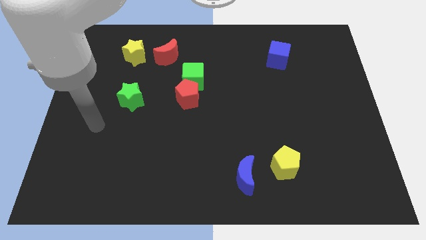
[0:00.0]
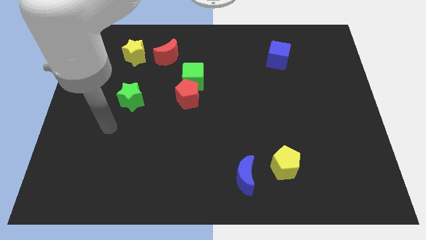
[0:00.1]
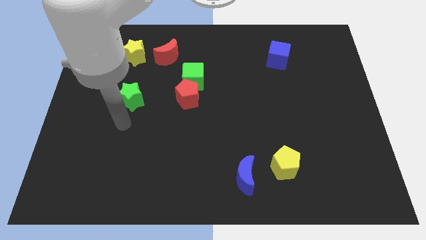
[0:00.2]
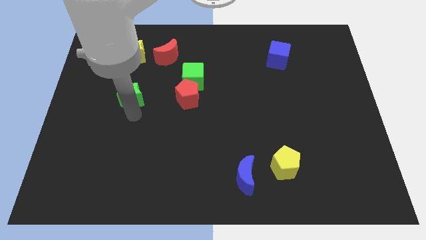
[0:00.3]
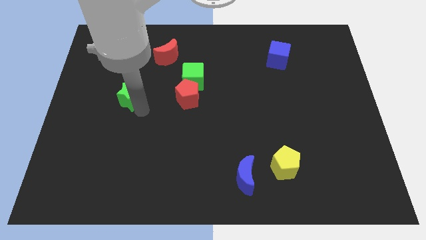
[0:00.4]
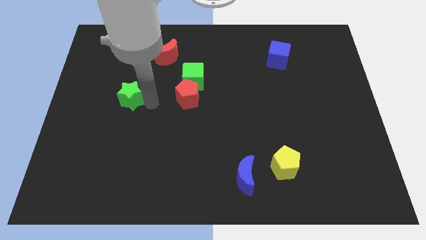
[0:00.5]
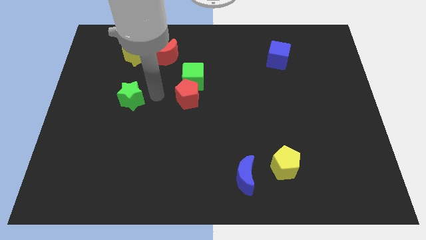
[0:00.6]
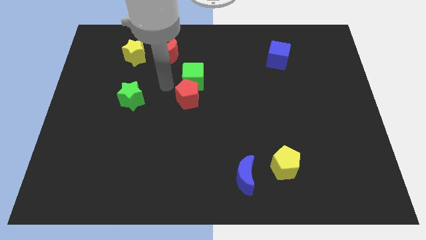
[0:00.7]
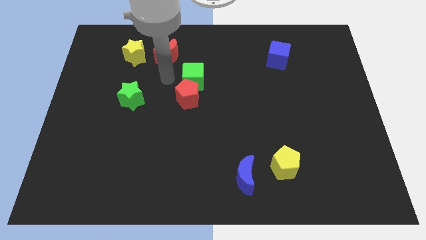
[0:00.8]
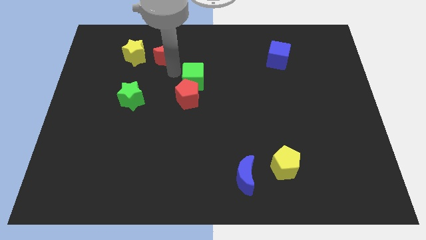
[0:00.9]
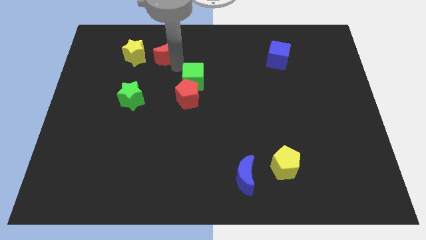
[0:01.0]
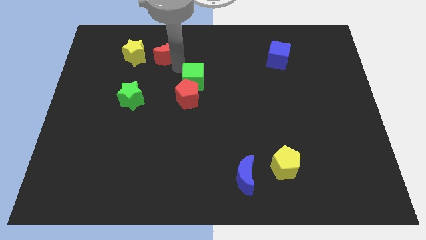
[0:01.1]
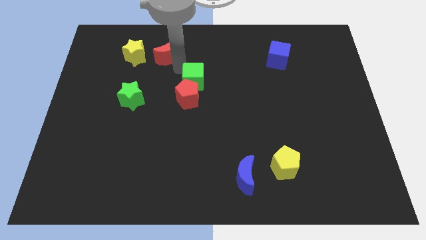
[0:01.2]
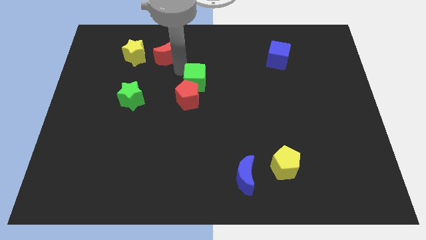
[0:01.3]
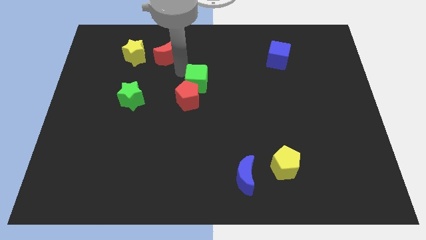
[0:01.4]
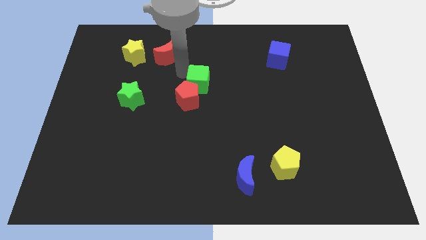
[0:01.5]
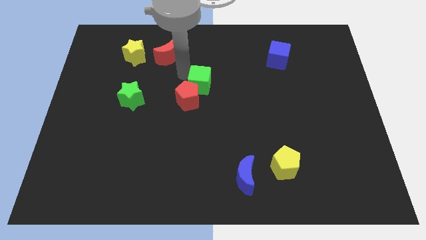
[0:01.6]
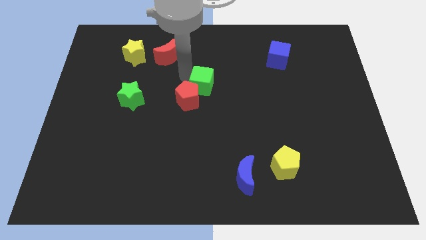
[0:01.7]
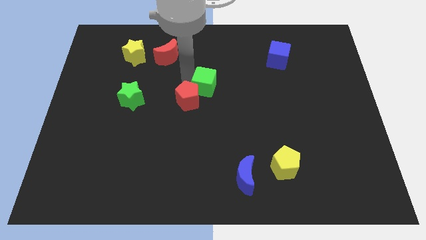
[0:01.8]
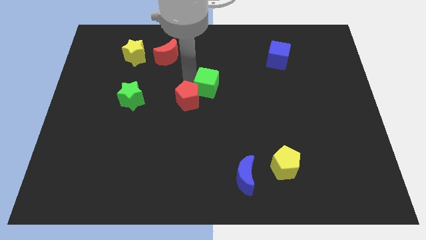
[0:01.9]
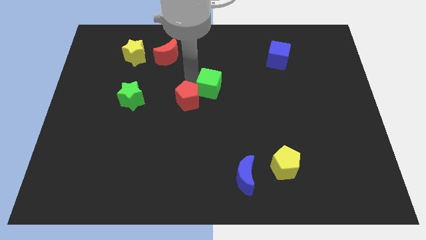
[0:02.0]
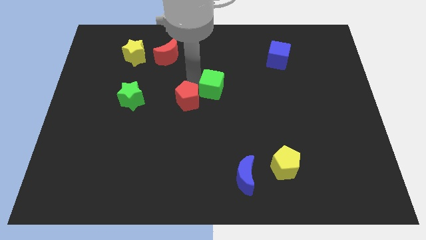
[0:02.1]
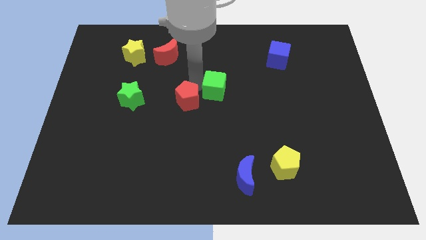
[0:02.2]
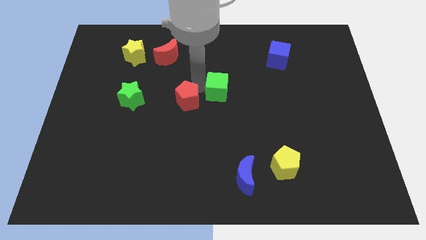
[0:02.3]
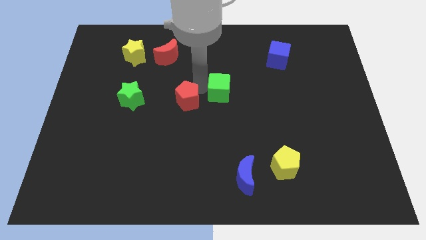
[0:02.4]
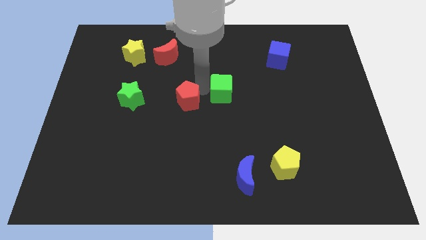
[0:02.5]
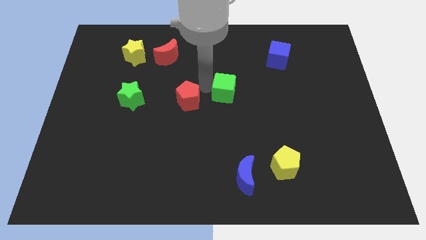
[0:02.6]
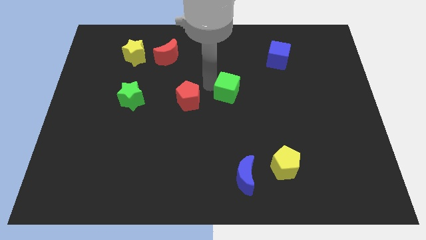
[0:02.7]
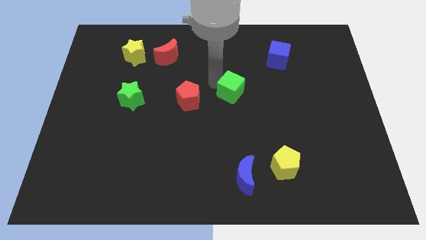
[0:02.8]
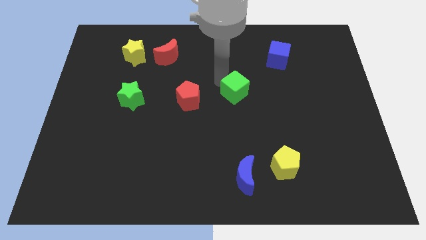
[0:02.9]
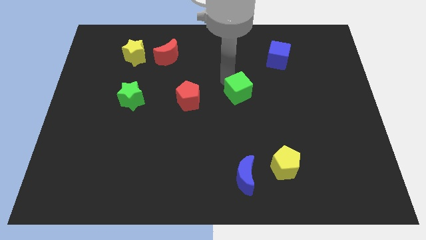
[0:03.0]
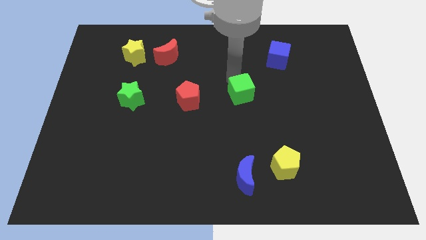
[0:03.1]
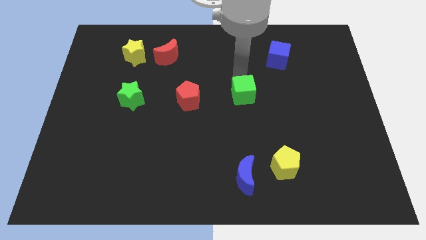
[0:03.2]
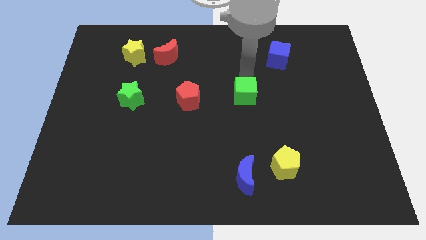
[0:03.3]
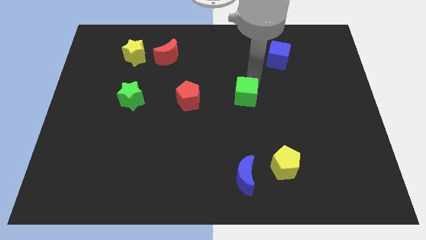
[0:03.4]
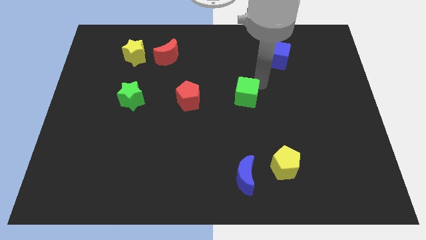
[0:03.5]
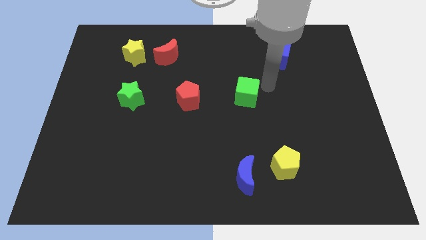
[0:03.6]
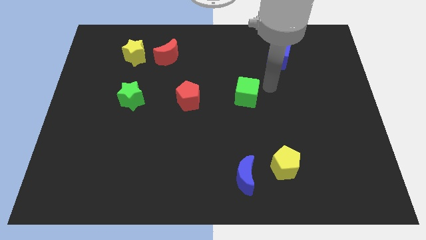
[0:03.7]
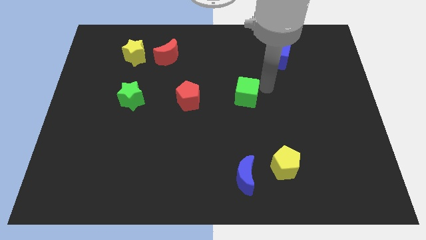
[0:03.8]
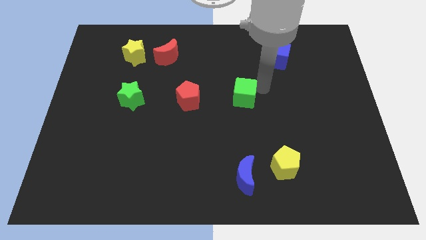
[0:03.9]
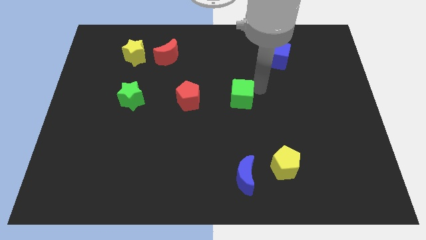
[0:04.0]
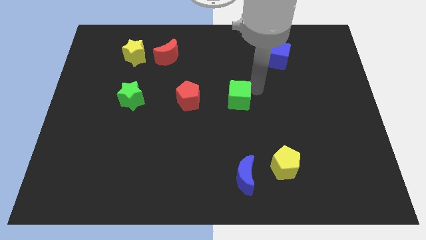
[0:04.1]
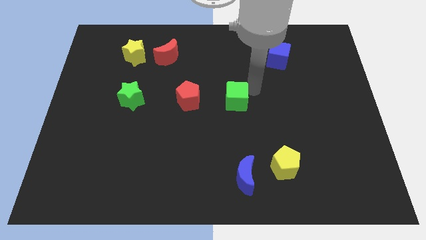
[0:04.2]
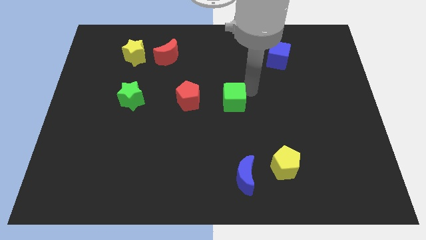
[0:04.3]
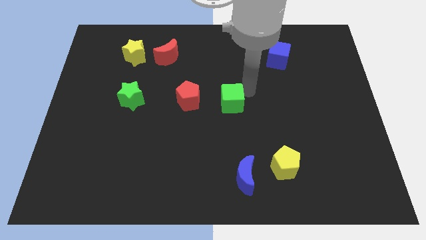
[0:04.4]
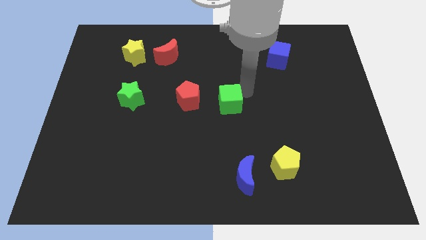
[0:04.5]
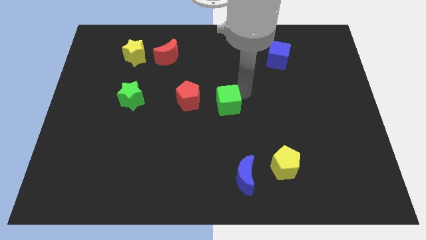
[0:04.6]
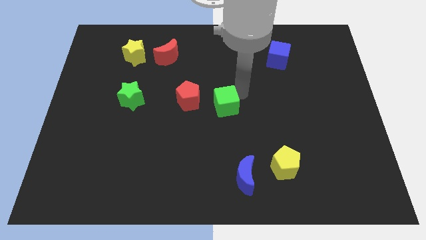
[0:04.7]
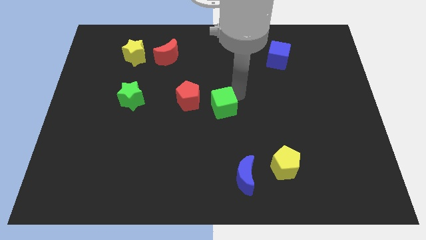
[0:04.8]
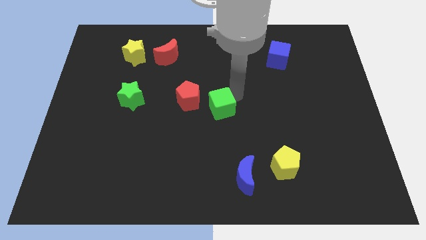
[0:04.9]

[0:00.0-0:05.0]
slide the green cube slightly down

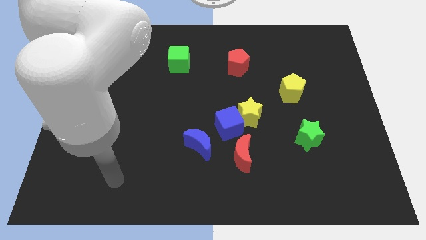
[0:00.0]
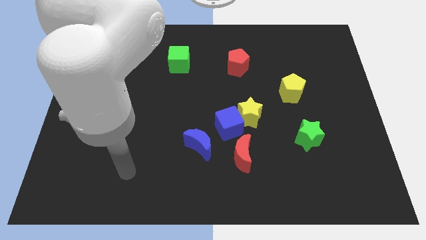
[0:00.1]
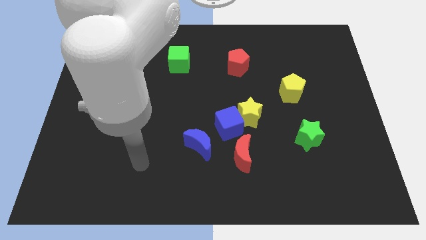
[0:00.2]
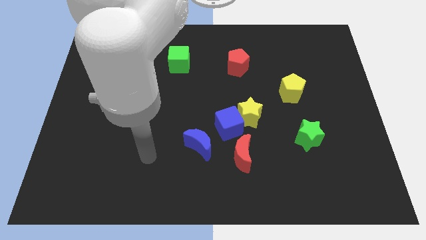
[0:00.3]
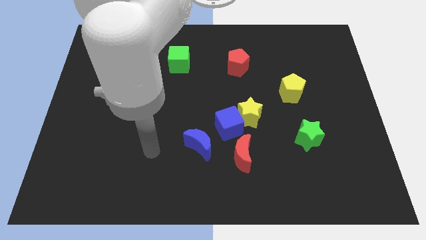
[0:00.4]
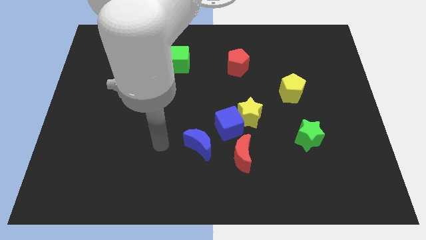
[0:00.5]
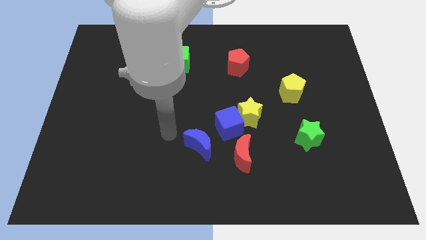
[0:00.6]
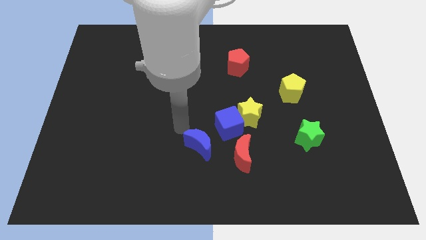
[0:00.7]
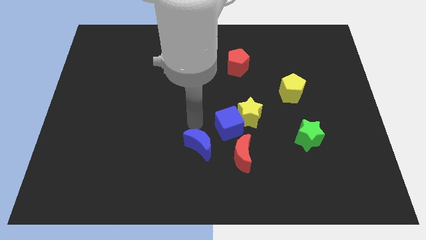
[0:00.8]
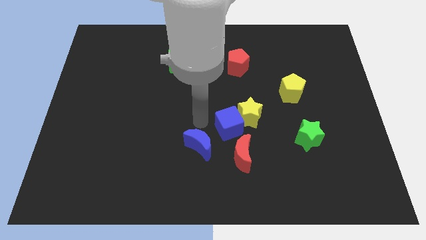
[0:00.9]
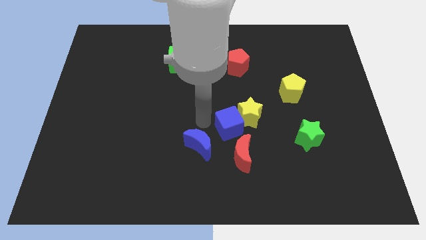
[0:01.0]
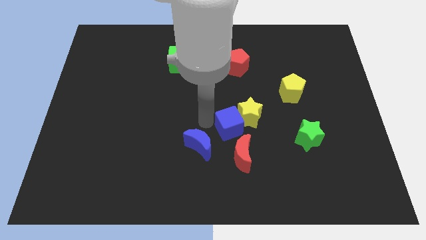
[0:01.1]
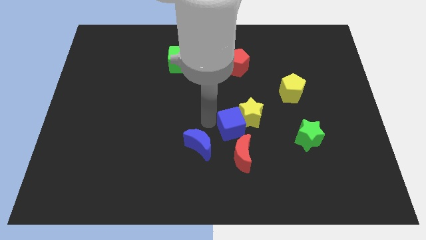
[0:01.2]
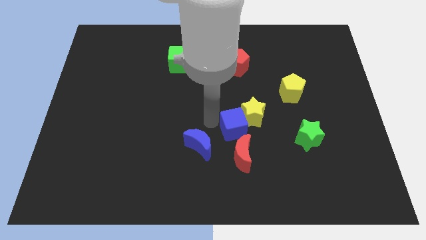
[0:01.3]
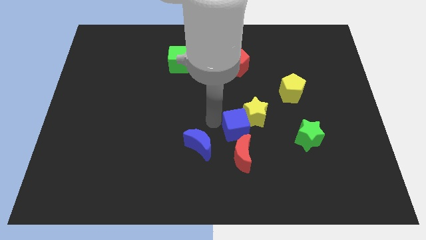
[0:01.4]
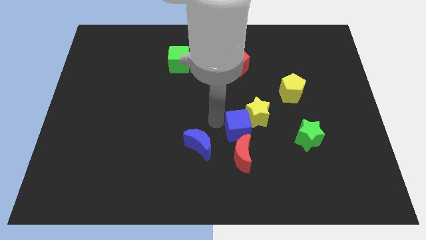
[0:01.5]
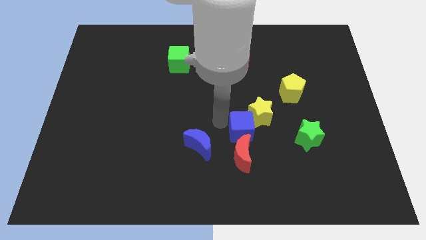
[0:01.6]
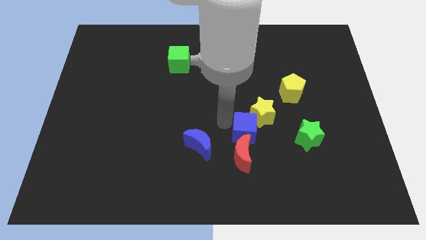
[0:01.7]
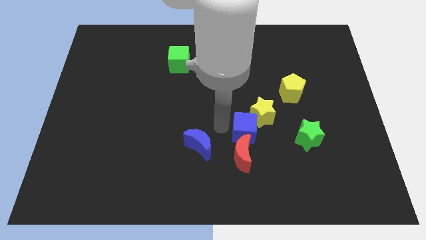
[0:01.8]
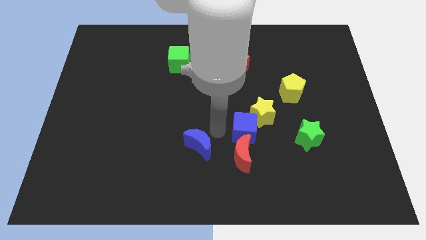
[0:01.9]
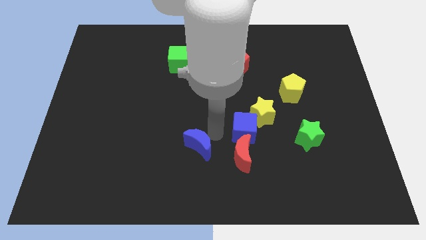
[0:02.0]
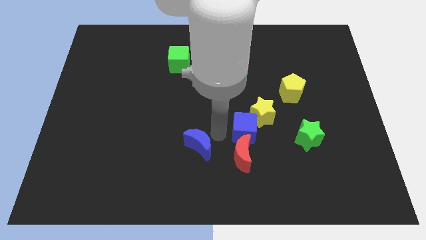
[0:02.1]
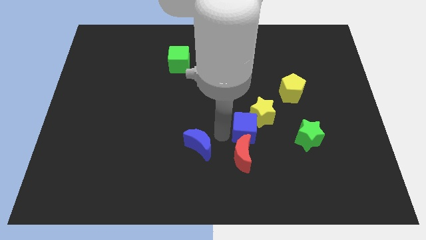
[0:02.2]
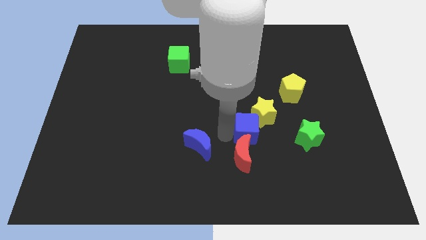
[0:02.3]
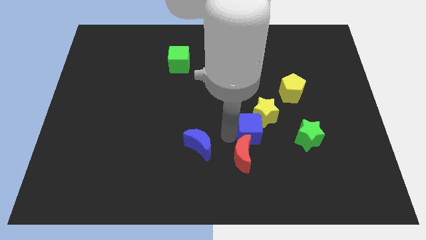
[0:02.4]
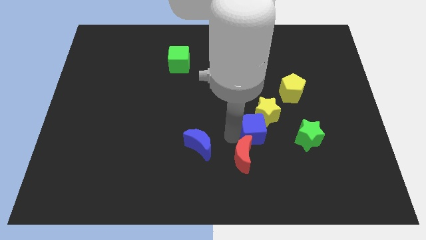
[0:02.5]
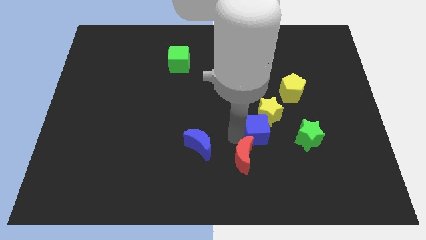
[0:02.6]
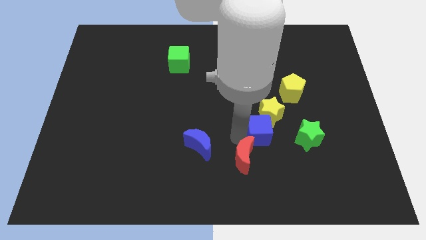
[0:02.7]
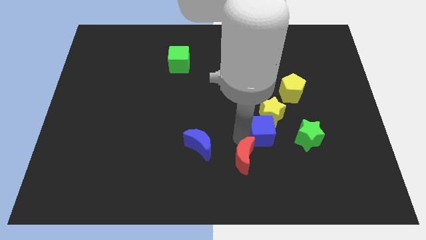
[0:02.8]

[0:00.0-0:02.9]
push the blue cube right somewhat
